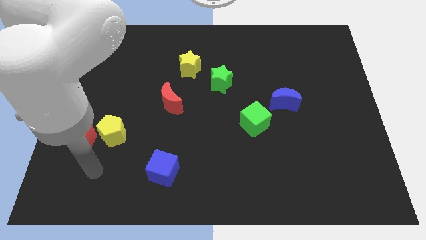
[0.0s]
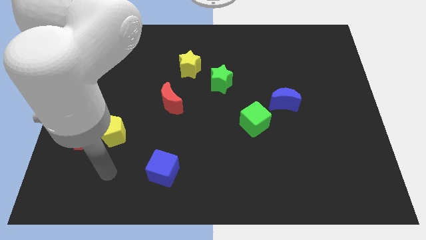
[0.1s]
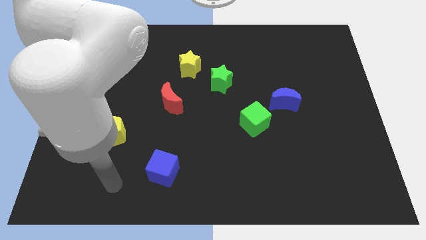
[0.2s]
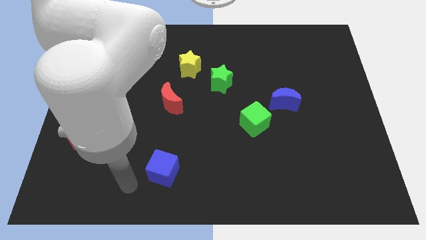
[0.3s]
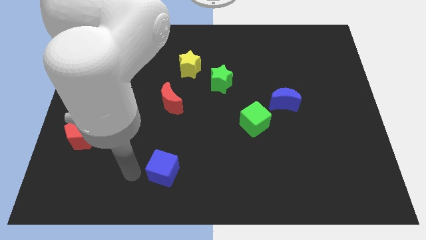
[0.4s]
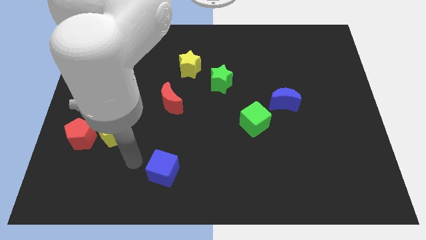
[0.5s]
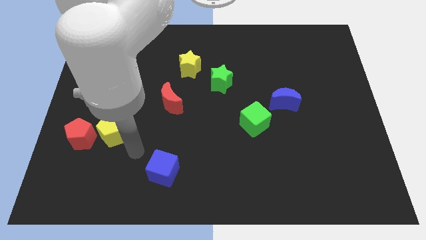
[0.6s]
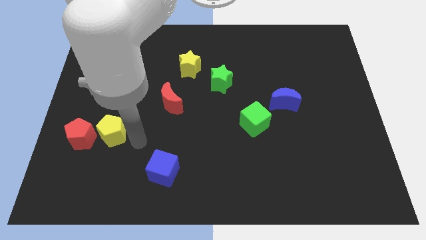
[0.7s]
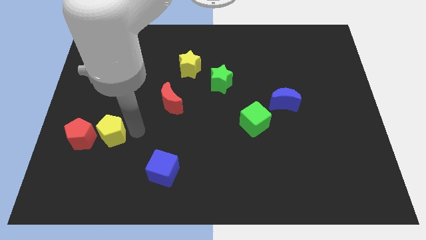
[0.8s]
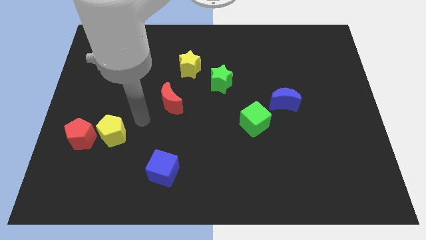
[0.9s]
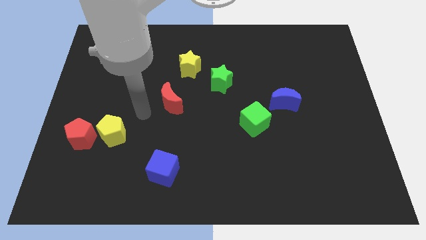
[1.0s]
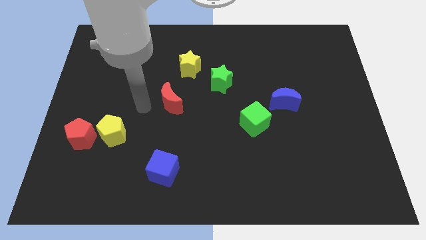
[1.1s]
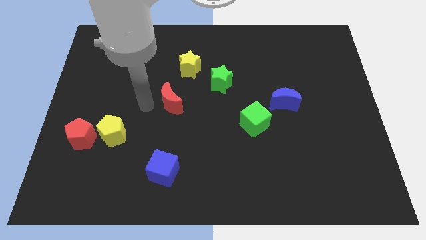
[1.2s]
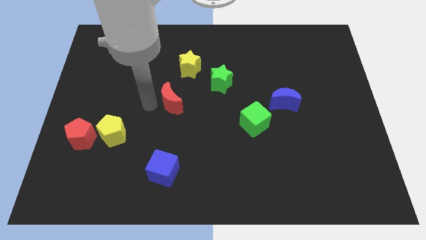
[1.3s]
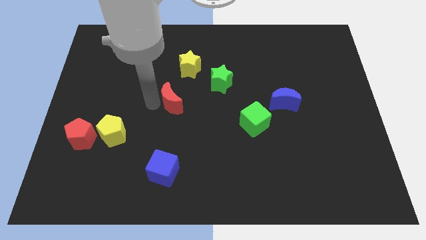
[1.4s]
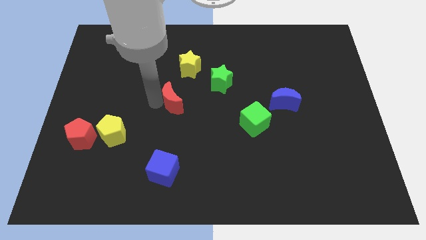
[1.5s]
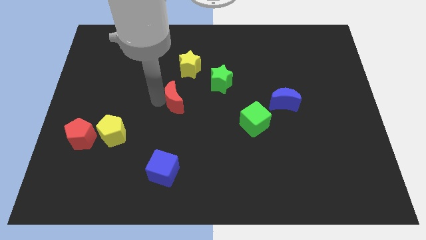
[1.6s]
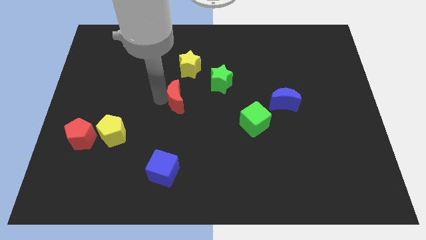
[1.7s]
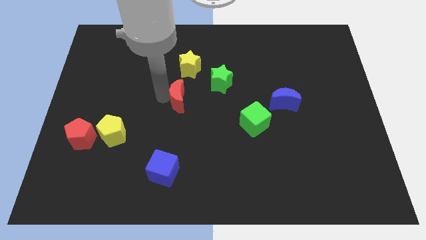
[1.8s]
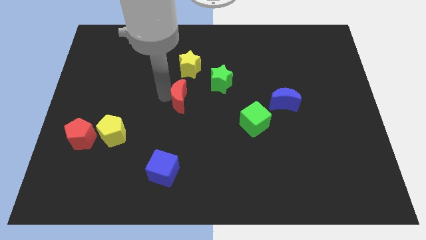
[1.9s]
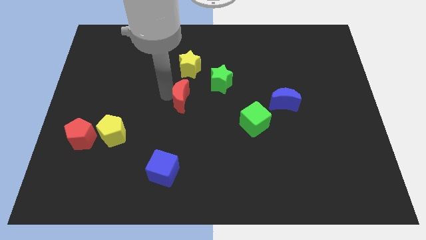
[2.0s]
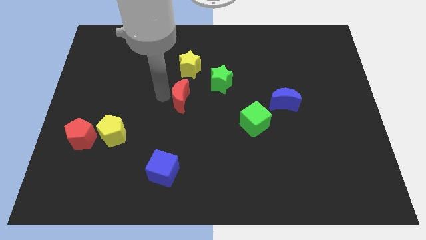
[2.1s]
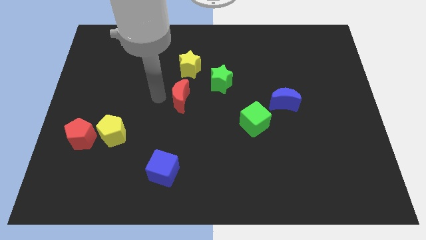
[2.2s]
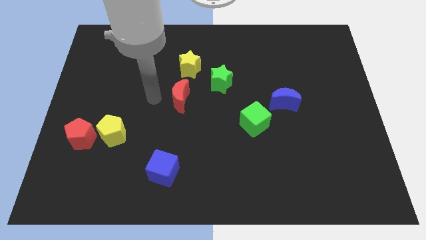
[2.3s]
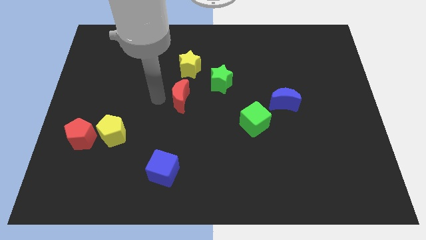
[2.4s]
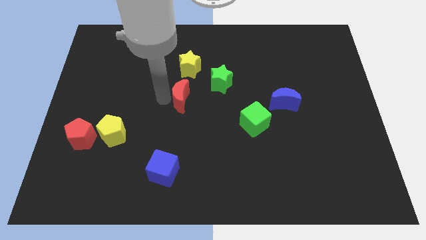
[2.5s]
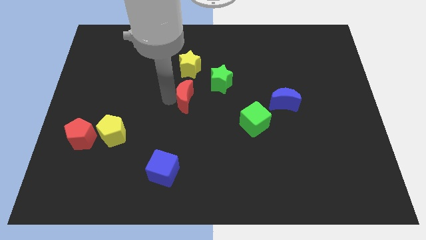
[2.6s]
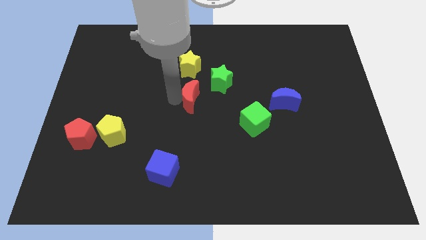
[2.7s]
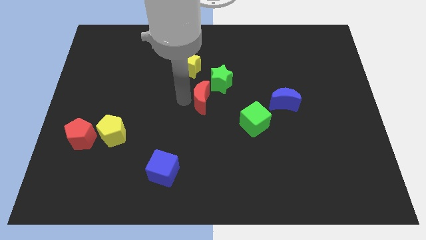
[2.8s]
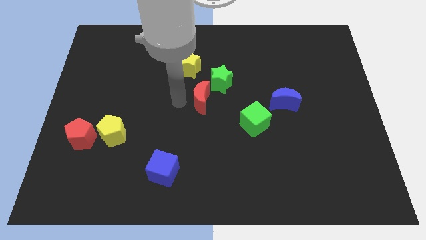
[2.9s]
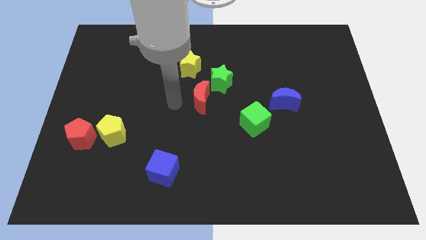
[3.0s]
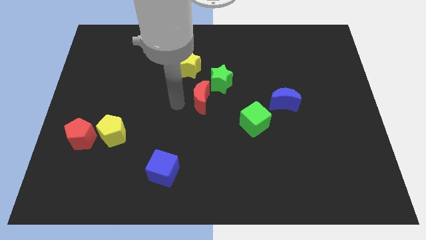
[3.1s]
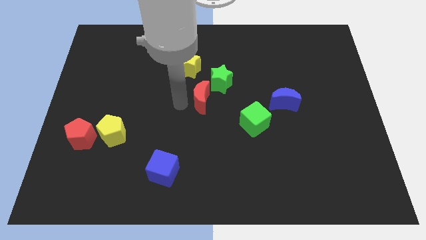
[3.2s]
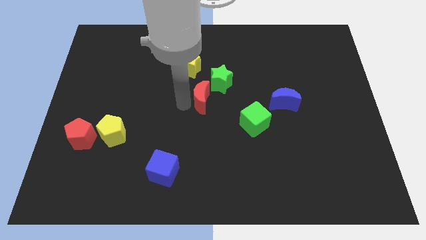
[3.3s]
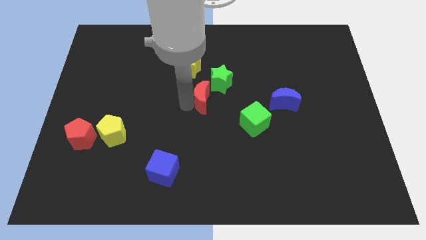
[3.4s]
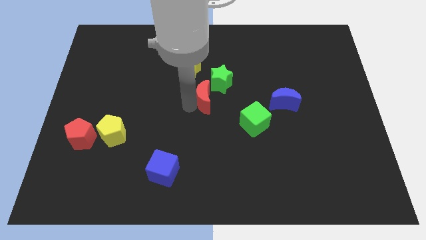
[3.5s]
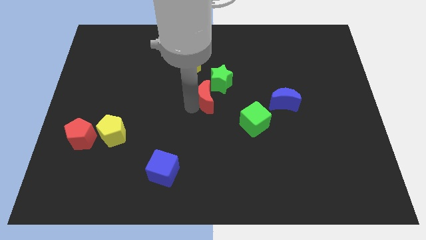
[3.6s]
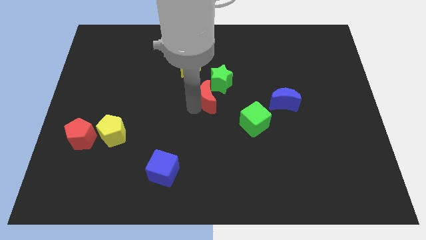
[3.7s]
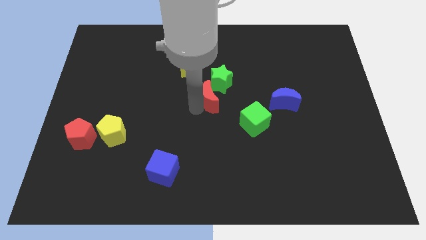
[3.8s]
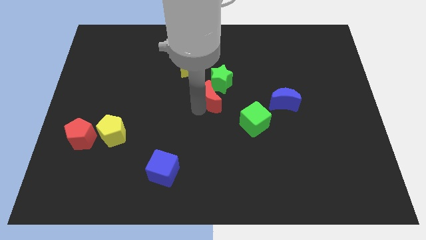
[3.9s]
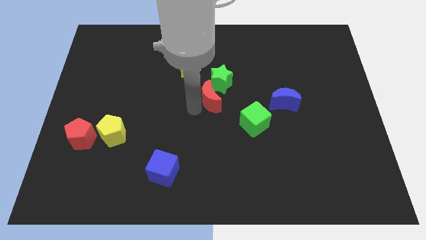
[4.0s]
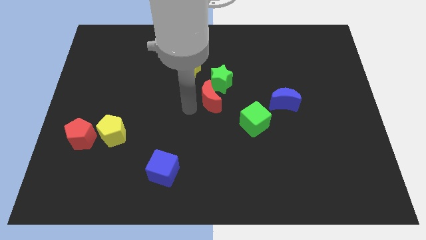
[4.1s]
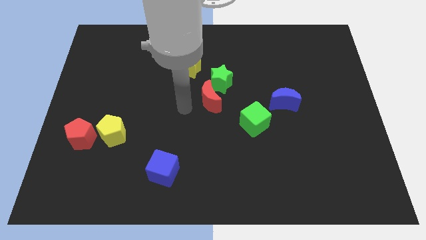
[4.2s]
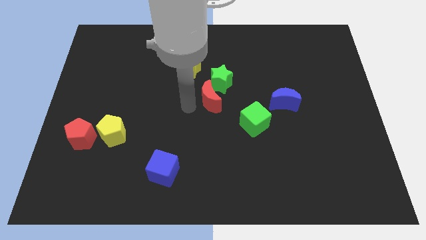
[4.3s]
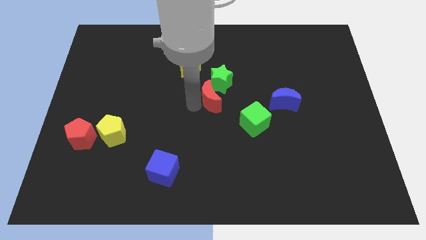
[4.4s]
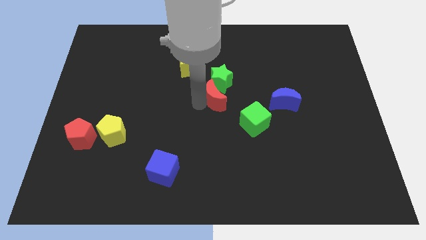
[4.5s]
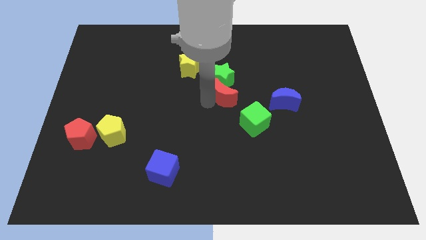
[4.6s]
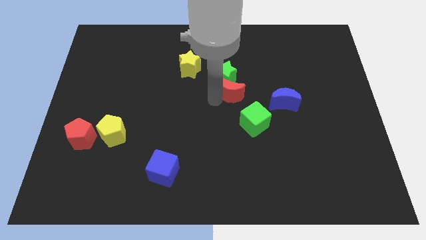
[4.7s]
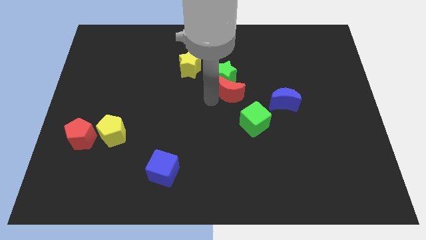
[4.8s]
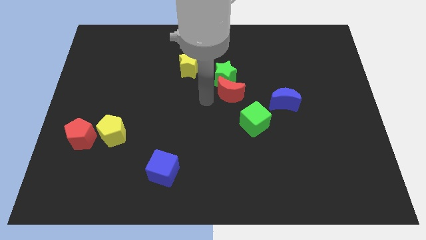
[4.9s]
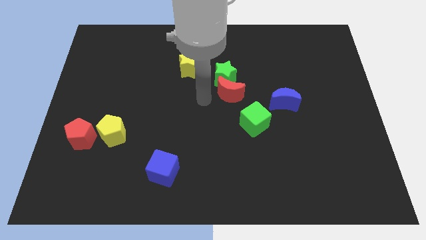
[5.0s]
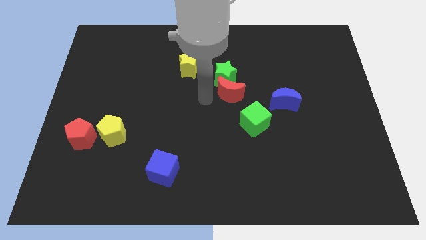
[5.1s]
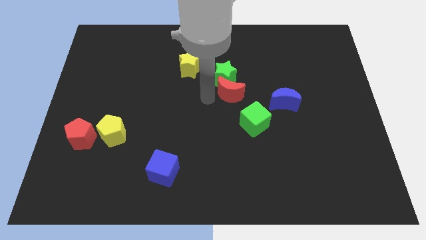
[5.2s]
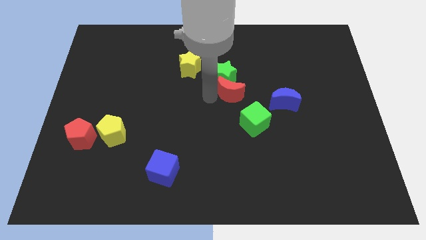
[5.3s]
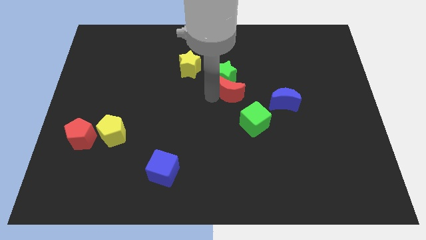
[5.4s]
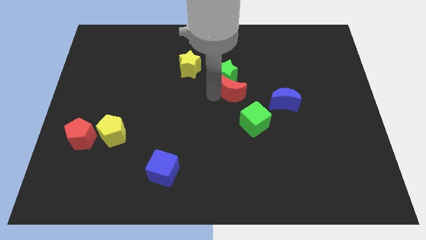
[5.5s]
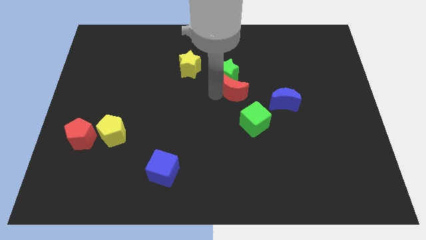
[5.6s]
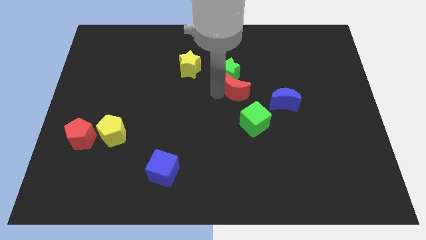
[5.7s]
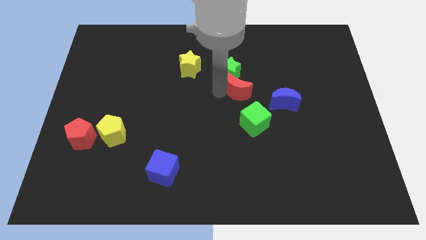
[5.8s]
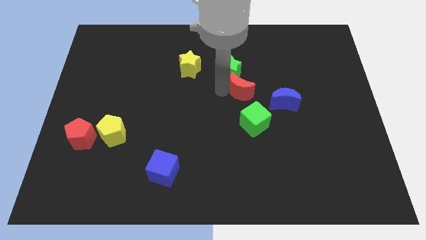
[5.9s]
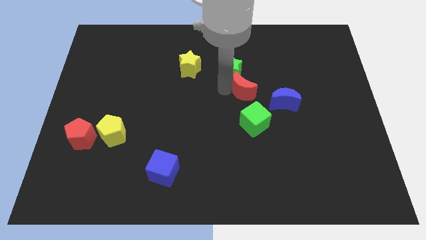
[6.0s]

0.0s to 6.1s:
move the red moon diagonally up and to the left of the blue moon

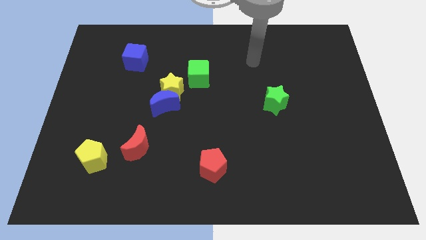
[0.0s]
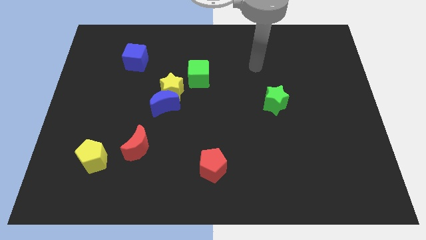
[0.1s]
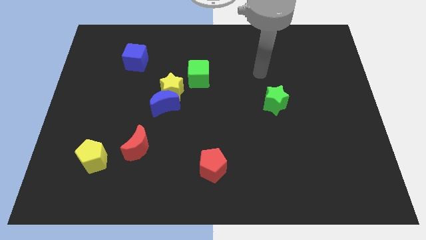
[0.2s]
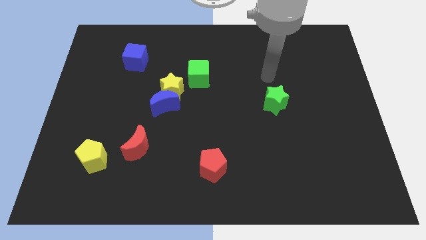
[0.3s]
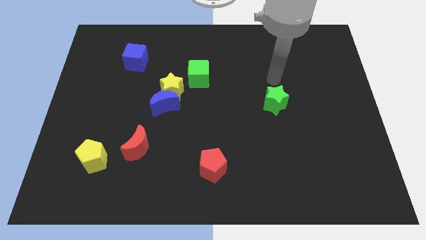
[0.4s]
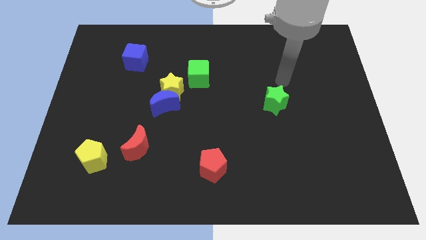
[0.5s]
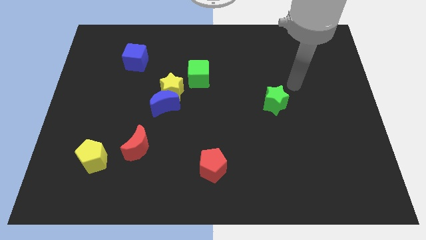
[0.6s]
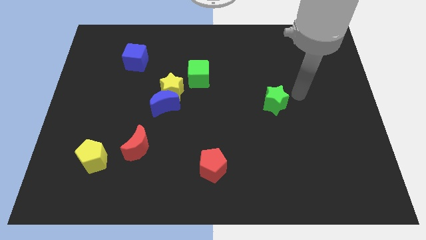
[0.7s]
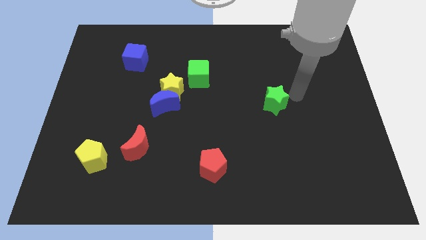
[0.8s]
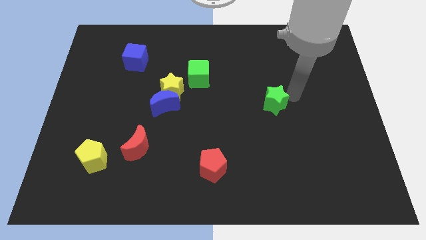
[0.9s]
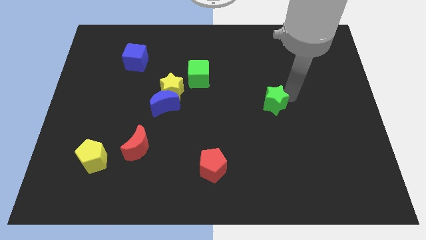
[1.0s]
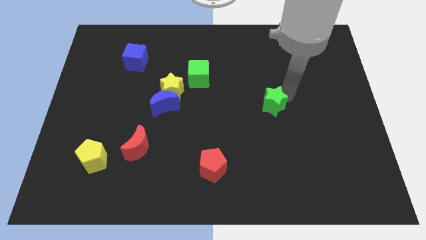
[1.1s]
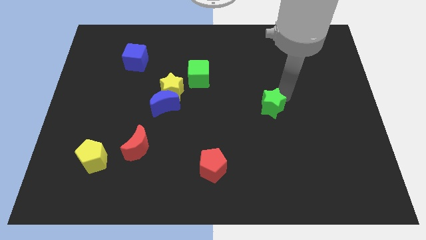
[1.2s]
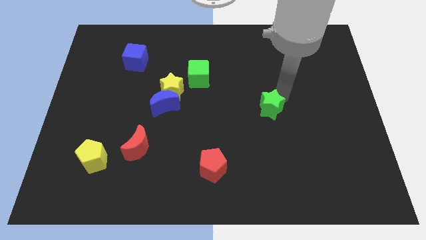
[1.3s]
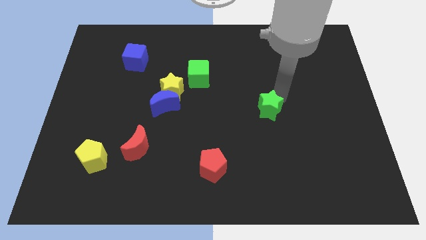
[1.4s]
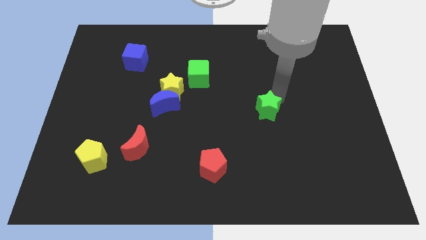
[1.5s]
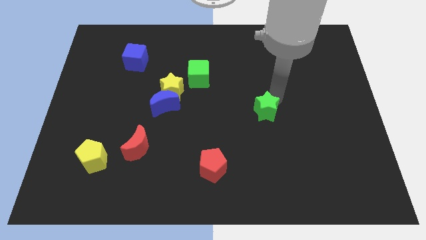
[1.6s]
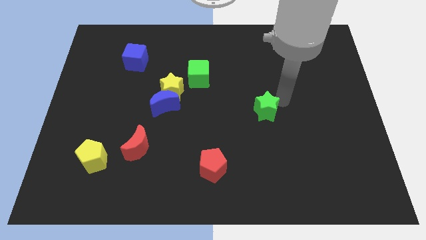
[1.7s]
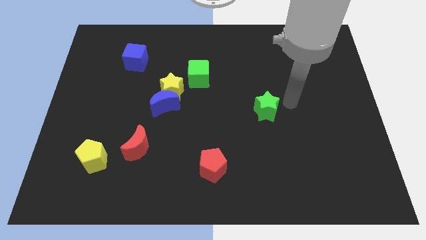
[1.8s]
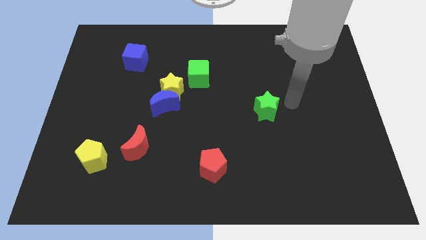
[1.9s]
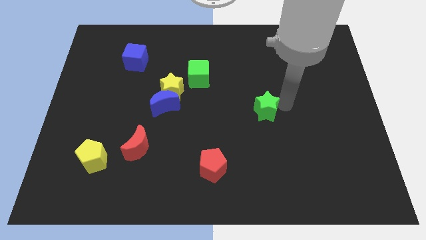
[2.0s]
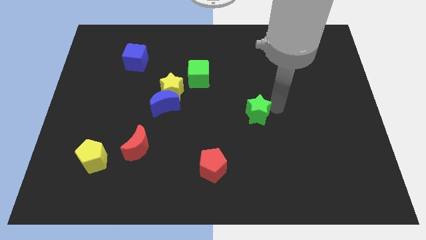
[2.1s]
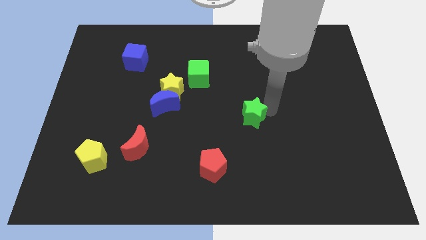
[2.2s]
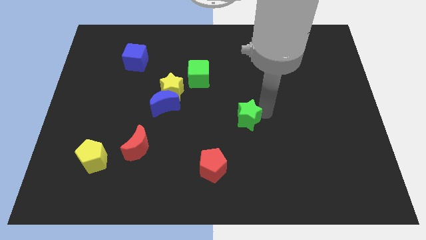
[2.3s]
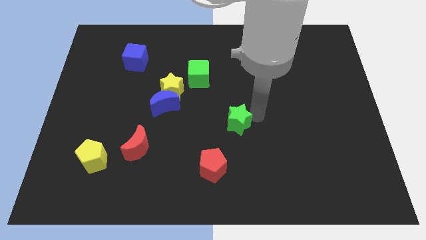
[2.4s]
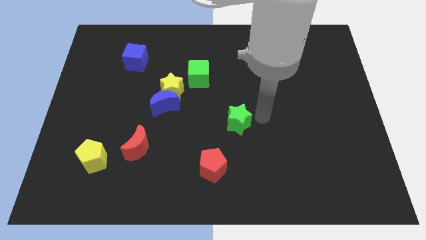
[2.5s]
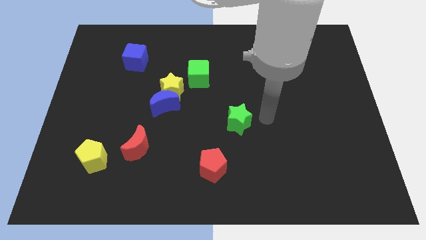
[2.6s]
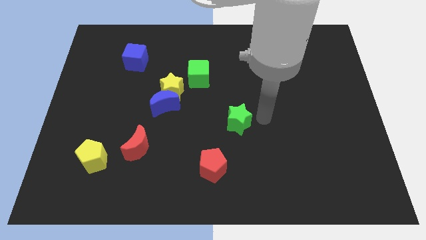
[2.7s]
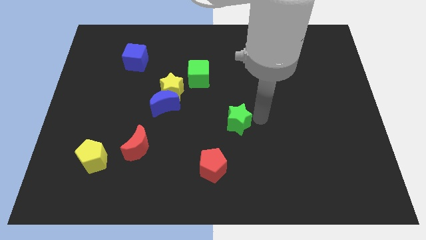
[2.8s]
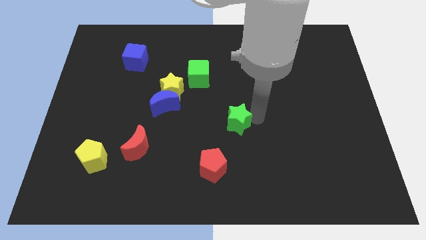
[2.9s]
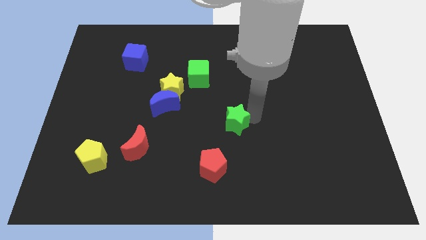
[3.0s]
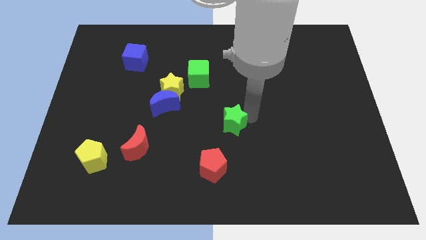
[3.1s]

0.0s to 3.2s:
slide the green star to the top side of the red pentagon
